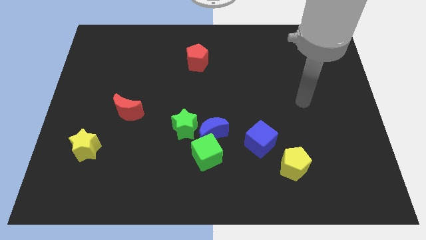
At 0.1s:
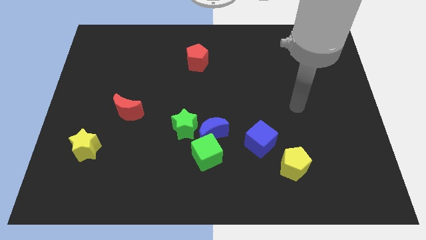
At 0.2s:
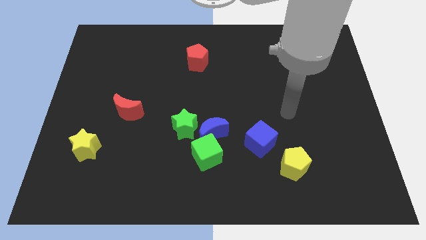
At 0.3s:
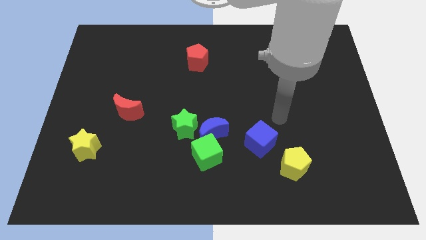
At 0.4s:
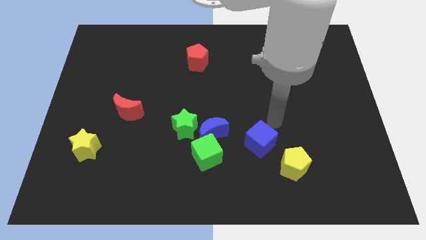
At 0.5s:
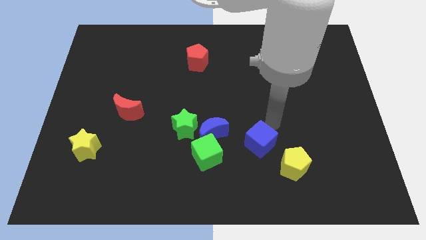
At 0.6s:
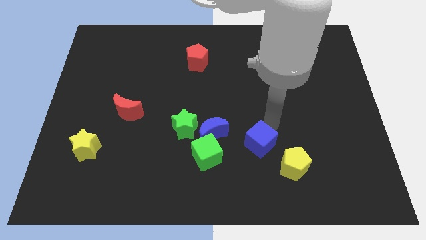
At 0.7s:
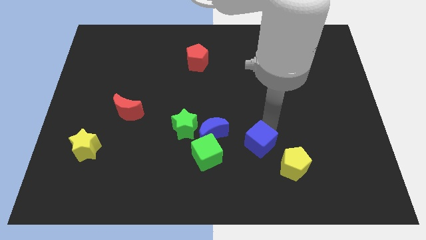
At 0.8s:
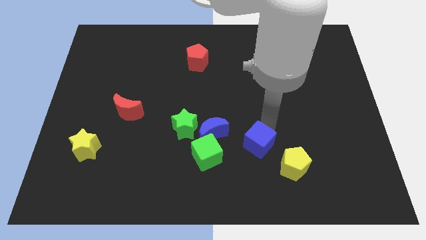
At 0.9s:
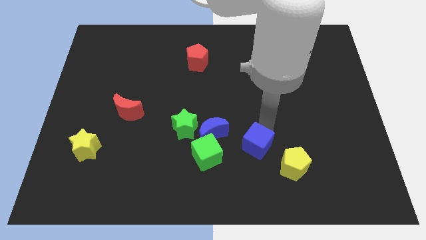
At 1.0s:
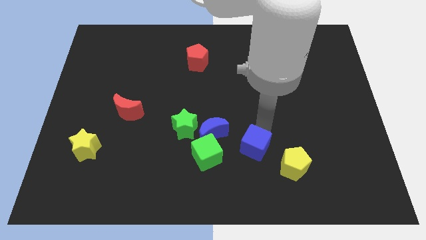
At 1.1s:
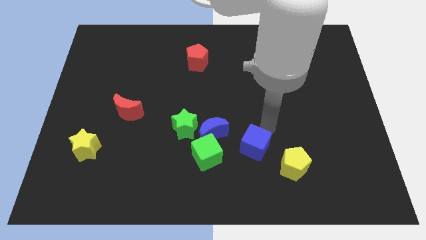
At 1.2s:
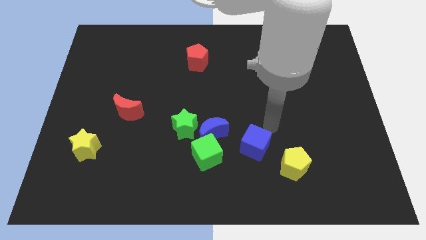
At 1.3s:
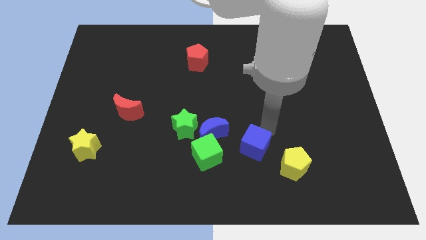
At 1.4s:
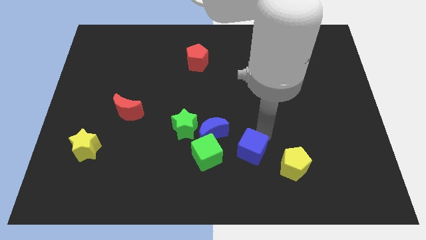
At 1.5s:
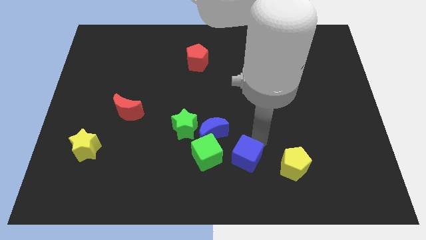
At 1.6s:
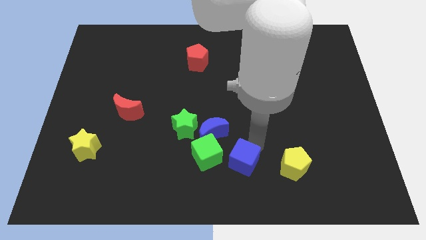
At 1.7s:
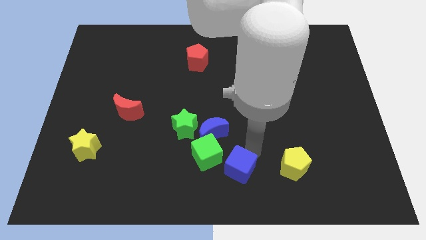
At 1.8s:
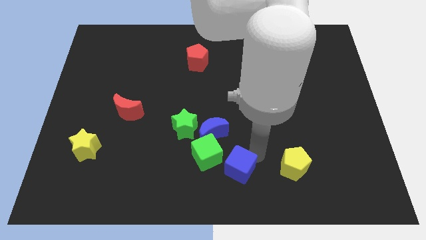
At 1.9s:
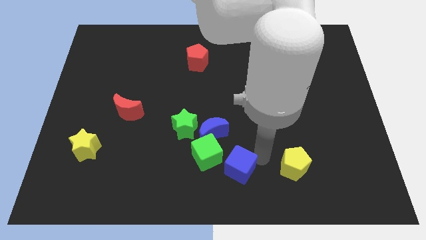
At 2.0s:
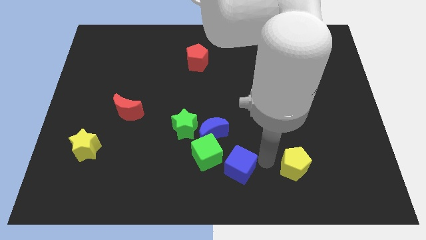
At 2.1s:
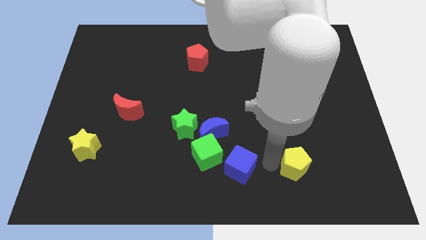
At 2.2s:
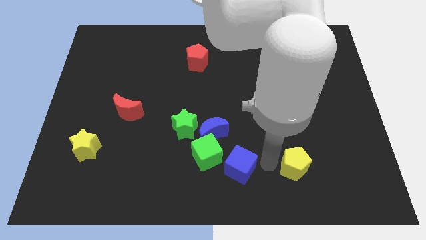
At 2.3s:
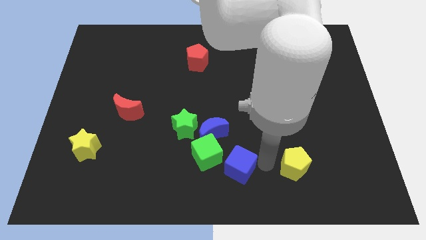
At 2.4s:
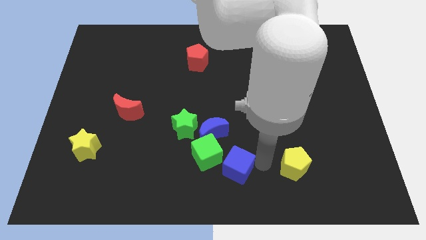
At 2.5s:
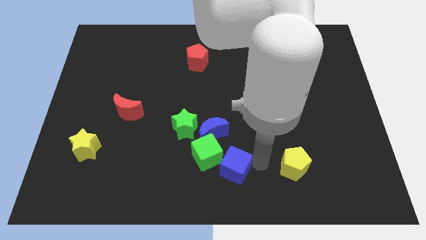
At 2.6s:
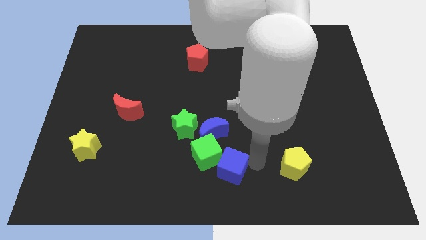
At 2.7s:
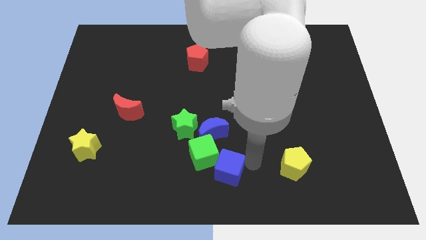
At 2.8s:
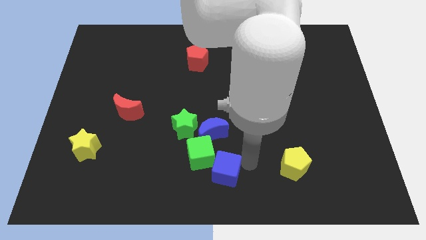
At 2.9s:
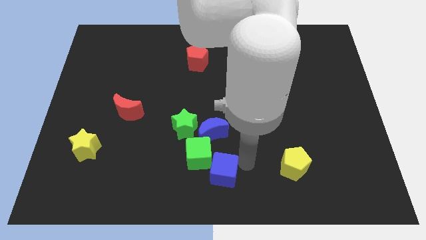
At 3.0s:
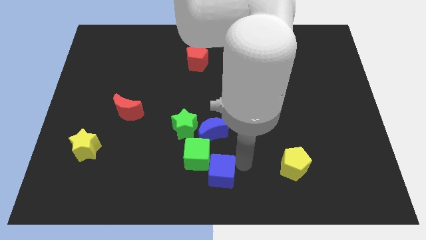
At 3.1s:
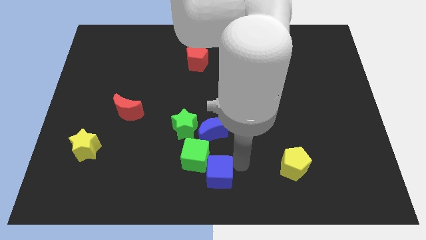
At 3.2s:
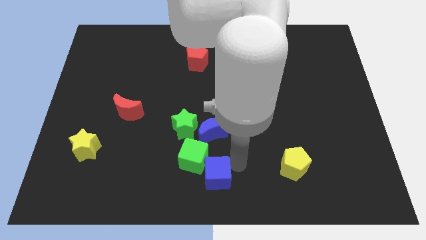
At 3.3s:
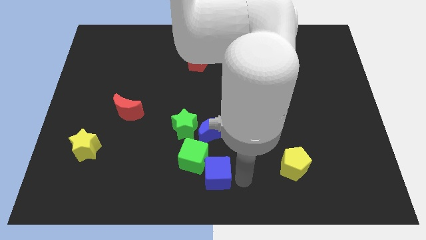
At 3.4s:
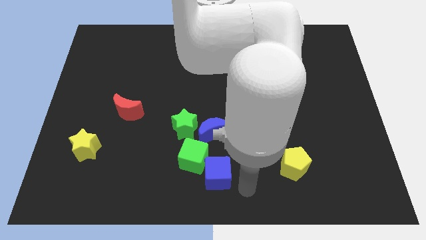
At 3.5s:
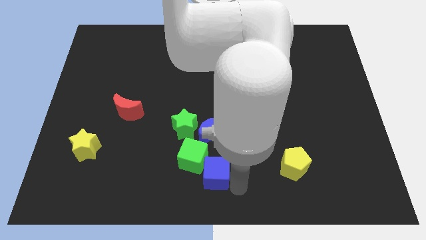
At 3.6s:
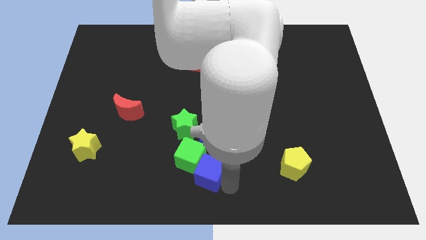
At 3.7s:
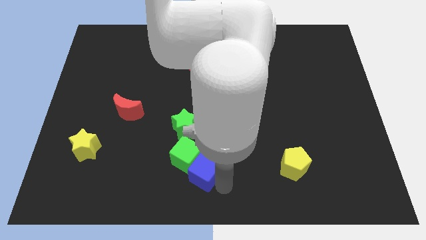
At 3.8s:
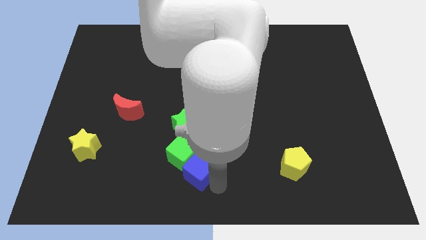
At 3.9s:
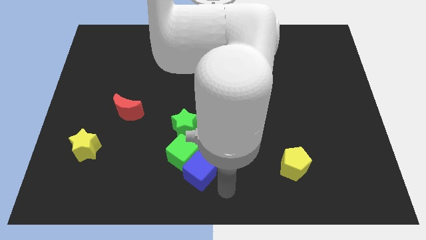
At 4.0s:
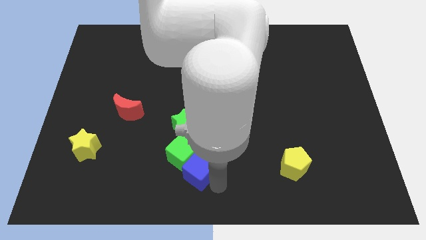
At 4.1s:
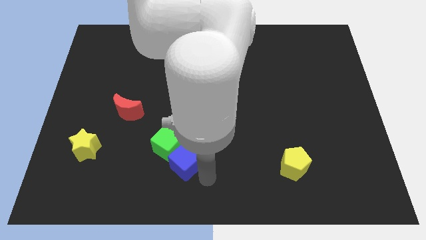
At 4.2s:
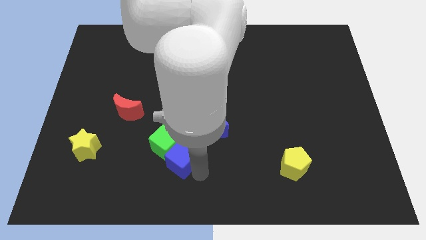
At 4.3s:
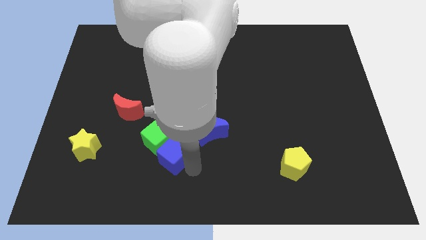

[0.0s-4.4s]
slide the blue cube to the bottom left of the green star

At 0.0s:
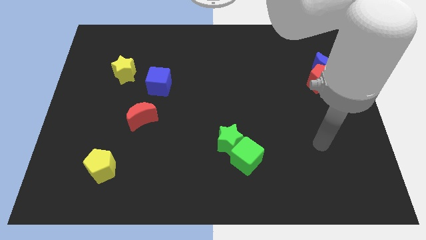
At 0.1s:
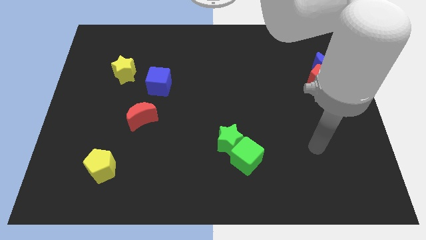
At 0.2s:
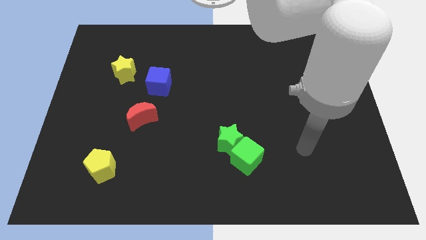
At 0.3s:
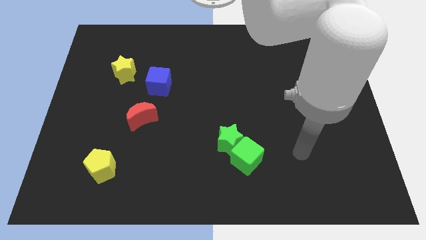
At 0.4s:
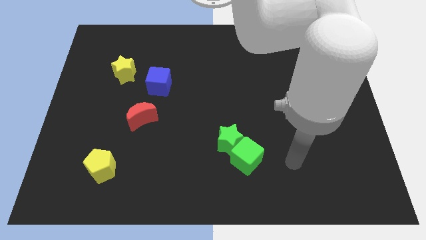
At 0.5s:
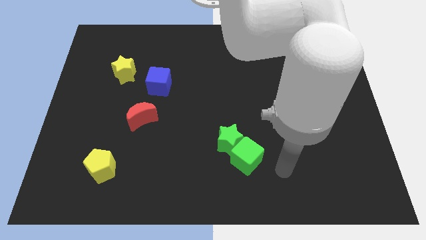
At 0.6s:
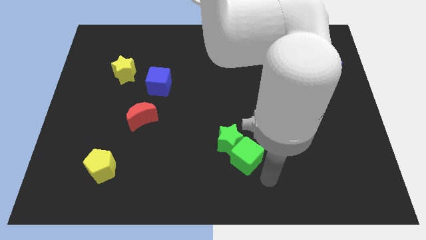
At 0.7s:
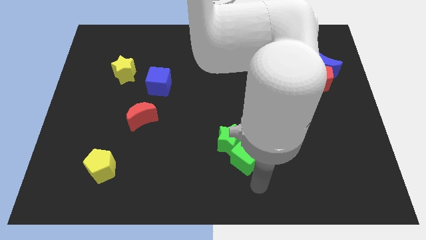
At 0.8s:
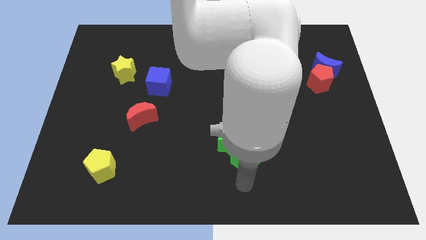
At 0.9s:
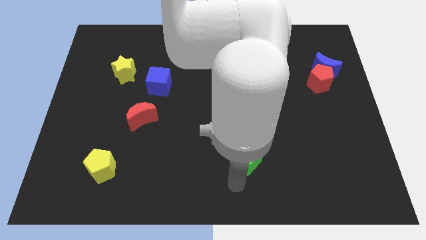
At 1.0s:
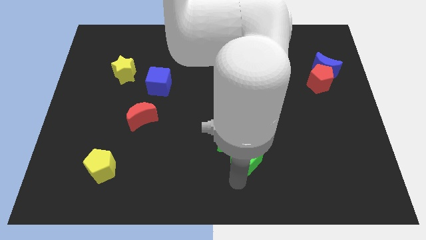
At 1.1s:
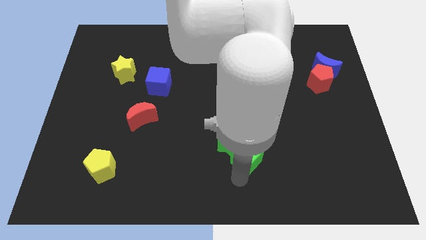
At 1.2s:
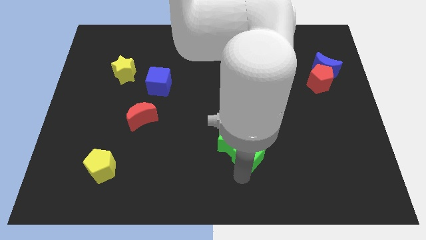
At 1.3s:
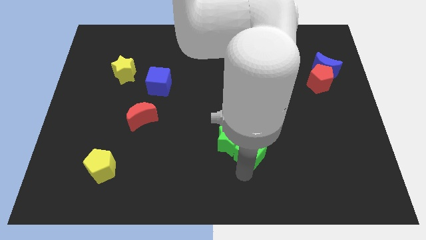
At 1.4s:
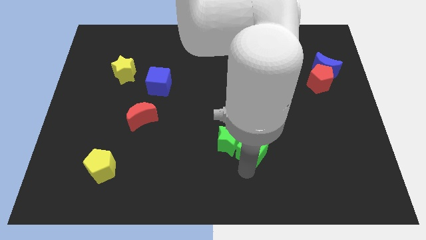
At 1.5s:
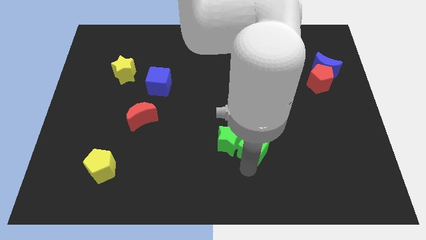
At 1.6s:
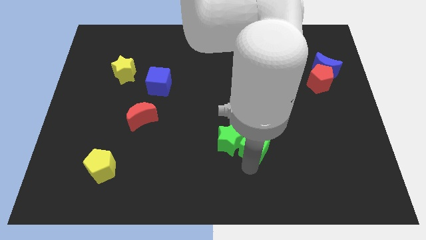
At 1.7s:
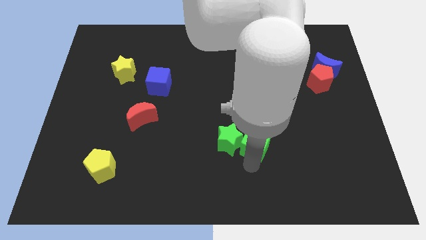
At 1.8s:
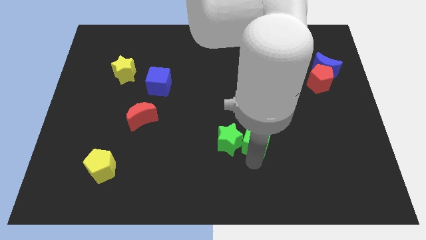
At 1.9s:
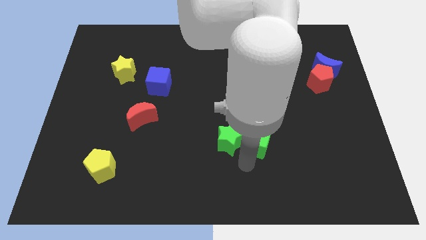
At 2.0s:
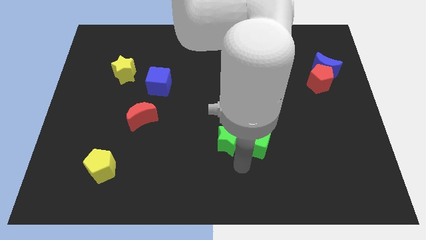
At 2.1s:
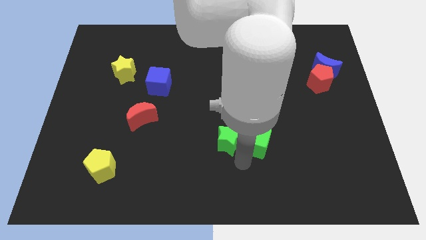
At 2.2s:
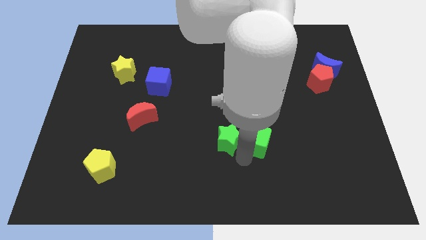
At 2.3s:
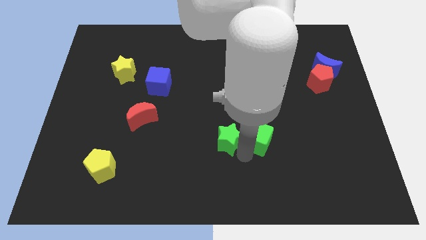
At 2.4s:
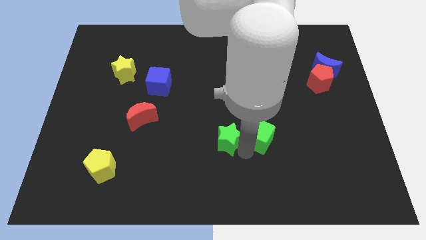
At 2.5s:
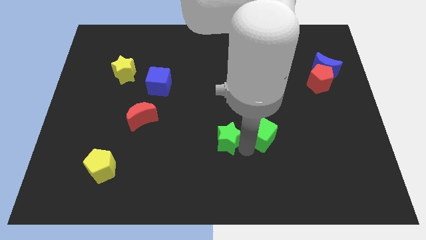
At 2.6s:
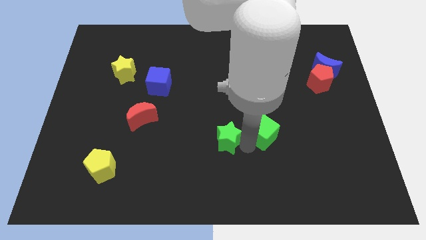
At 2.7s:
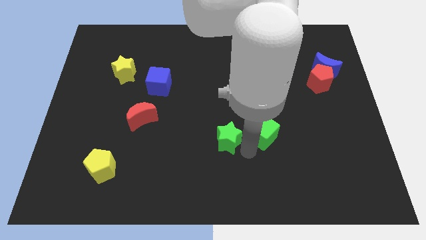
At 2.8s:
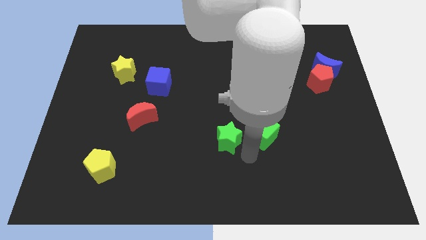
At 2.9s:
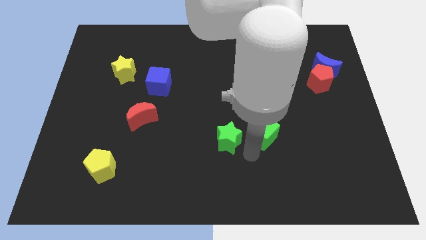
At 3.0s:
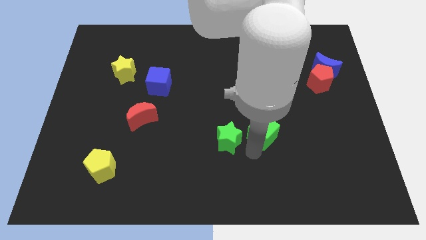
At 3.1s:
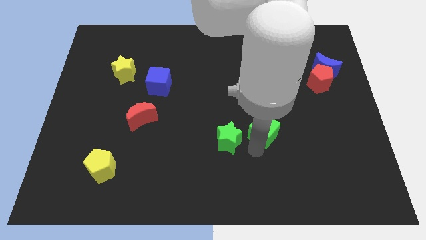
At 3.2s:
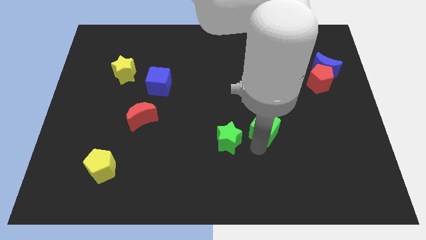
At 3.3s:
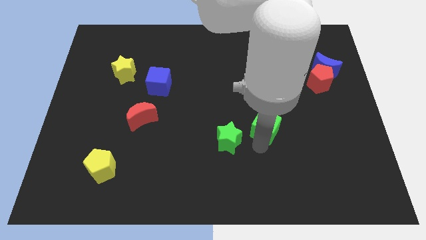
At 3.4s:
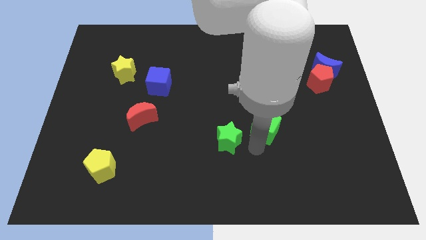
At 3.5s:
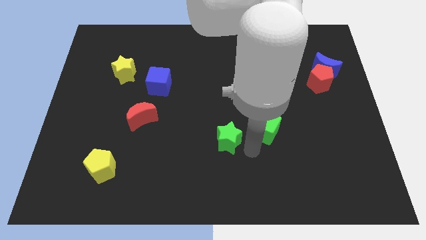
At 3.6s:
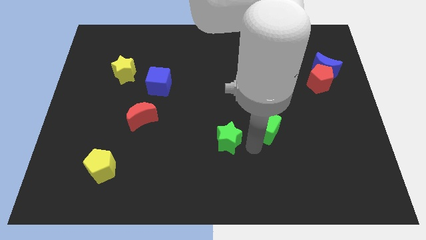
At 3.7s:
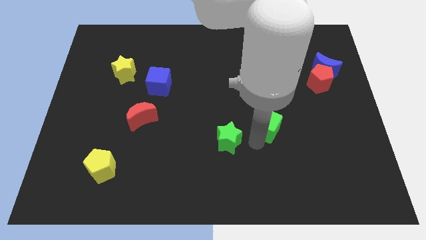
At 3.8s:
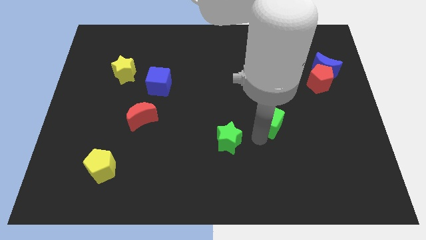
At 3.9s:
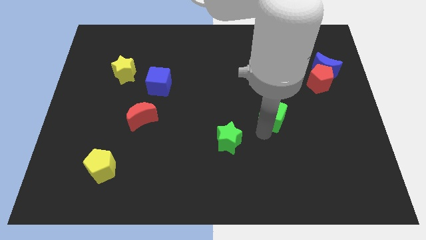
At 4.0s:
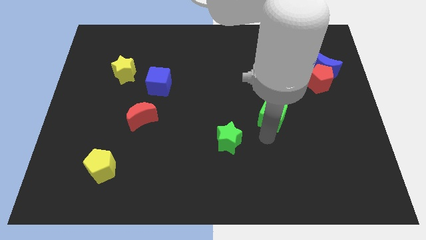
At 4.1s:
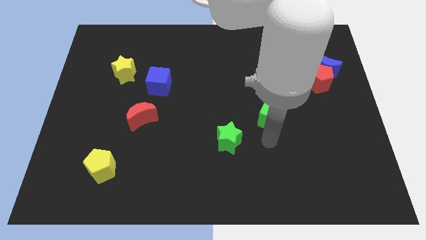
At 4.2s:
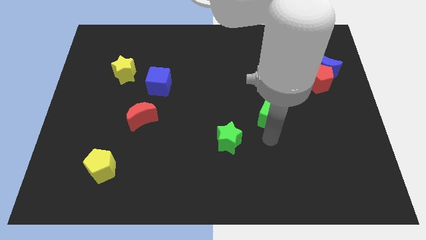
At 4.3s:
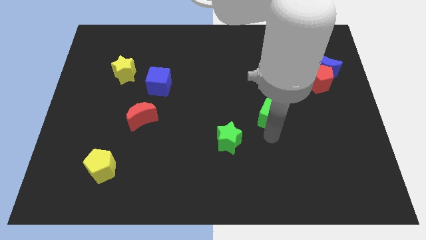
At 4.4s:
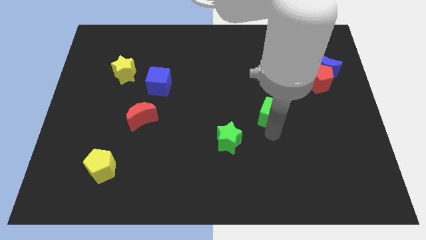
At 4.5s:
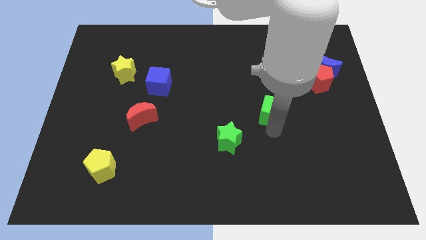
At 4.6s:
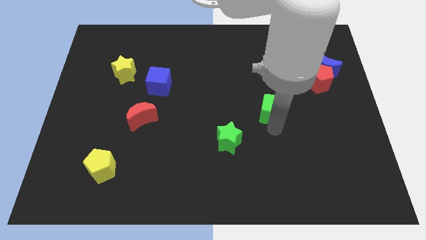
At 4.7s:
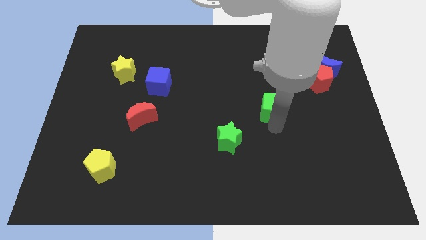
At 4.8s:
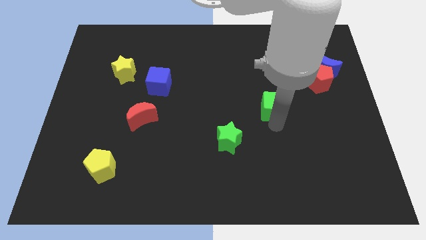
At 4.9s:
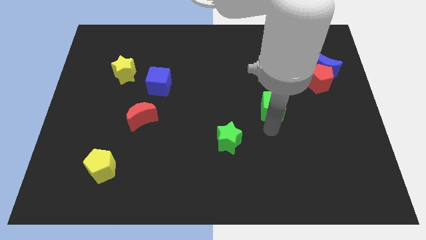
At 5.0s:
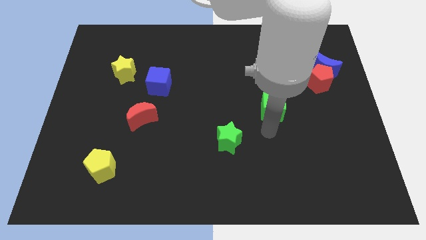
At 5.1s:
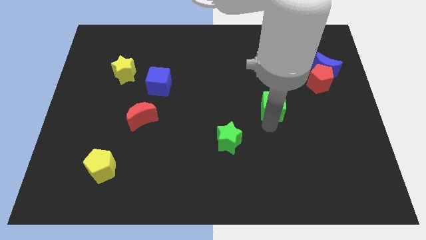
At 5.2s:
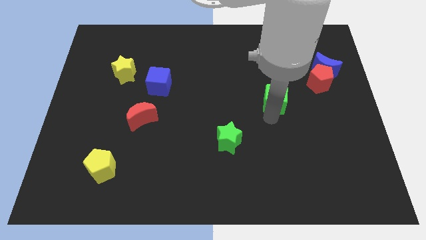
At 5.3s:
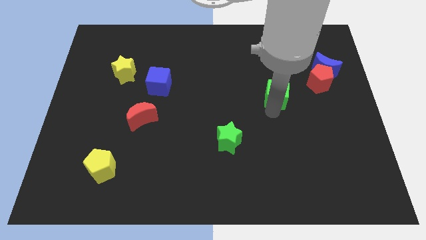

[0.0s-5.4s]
move the green cube left of the red pentagon
